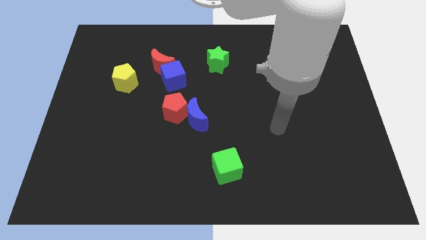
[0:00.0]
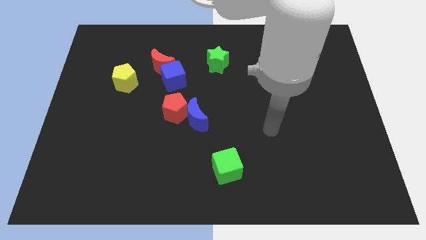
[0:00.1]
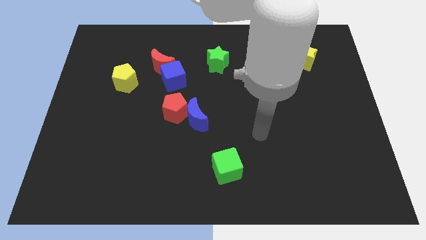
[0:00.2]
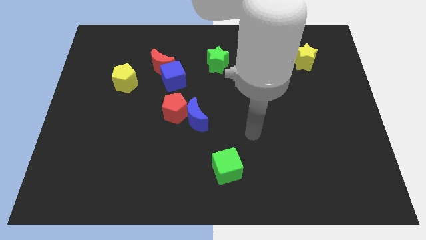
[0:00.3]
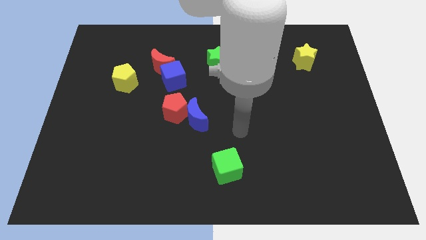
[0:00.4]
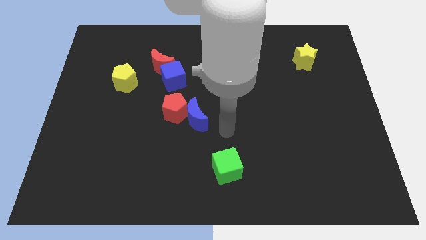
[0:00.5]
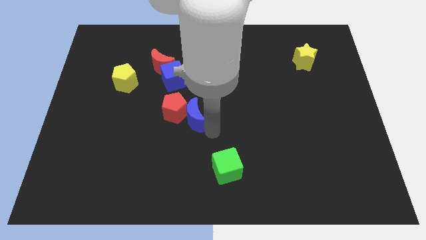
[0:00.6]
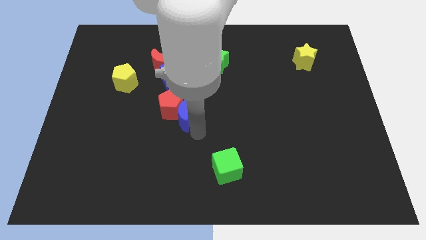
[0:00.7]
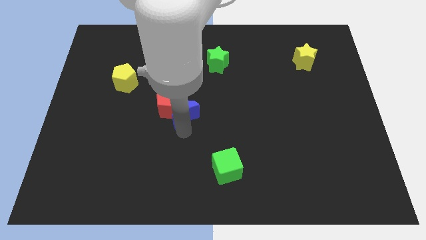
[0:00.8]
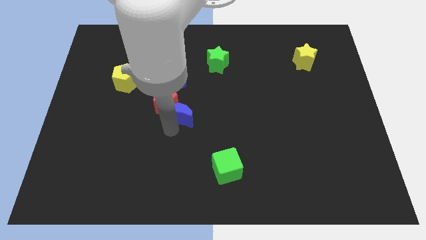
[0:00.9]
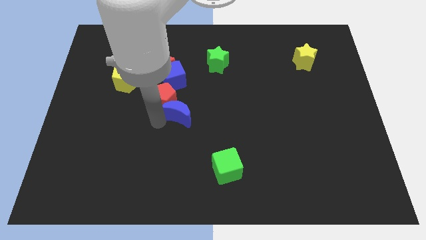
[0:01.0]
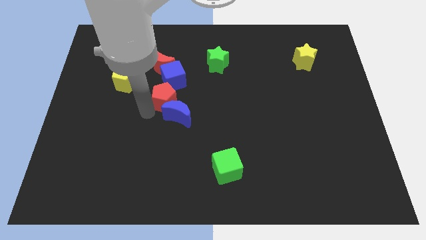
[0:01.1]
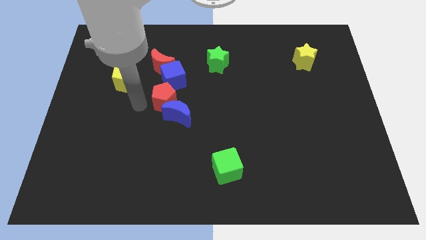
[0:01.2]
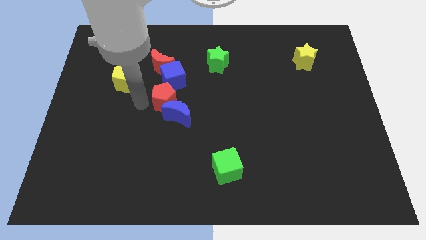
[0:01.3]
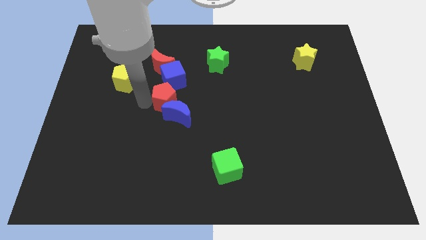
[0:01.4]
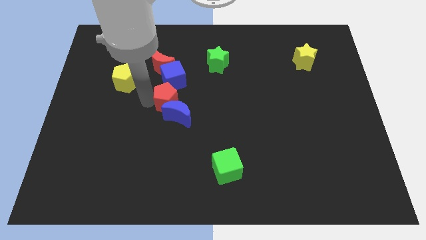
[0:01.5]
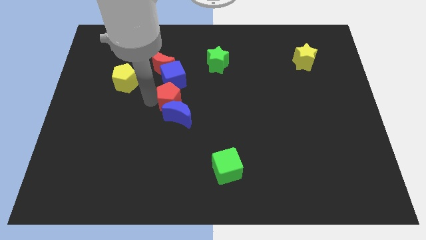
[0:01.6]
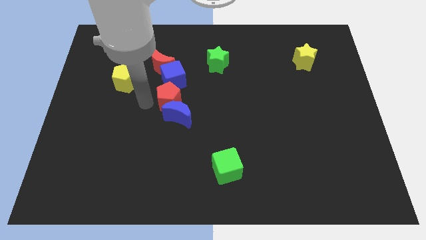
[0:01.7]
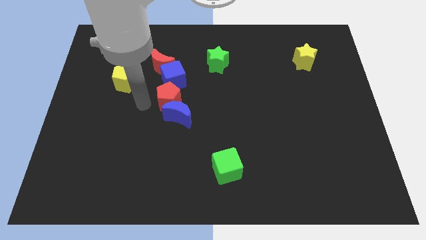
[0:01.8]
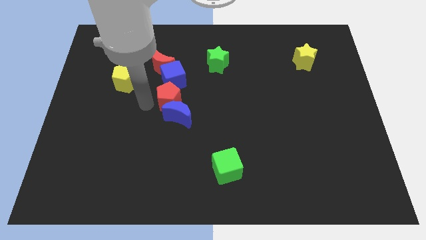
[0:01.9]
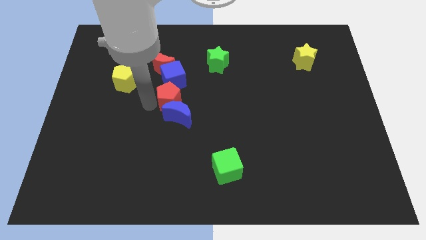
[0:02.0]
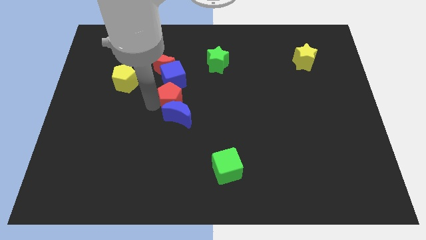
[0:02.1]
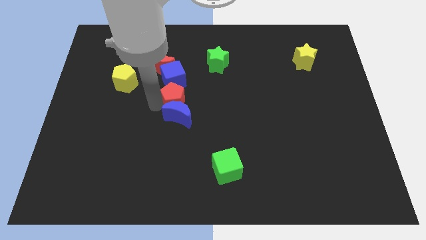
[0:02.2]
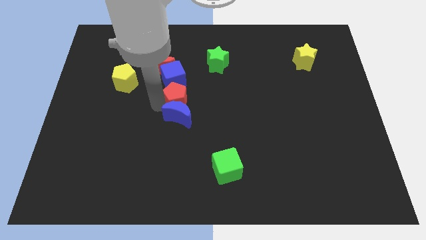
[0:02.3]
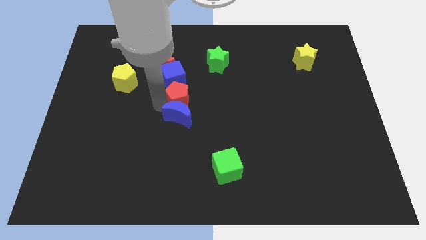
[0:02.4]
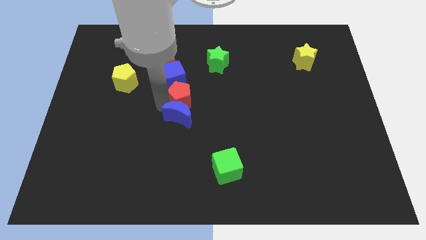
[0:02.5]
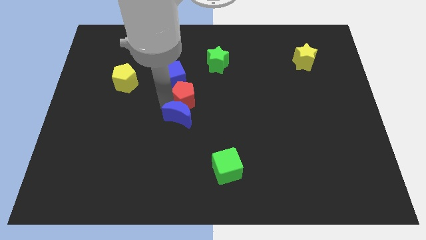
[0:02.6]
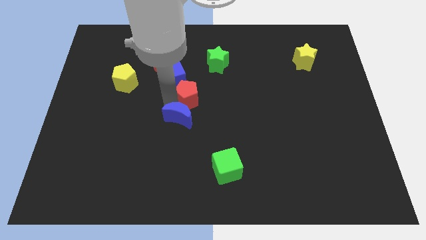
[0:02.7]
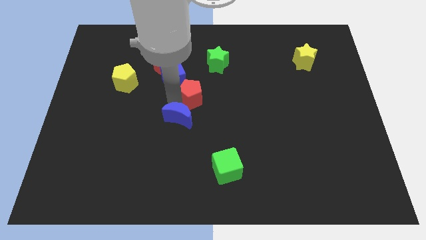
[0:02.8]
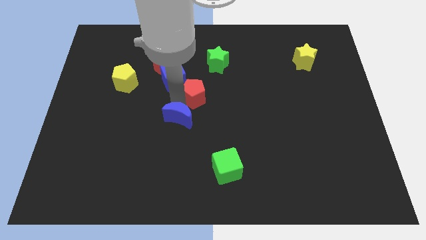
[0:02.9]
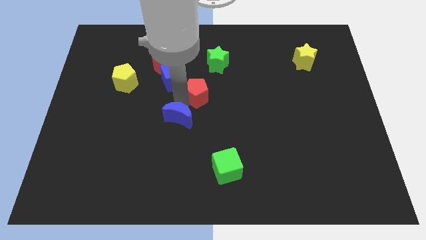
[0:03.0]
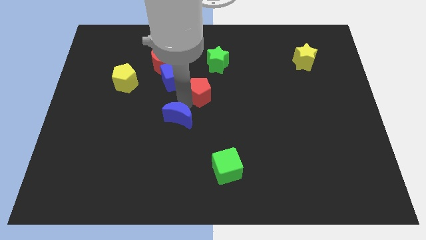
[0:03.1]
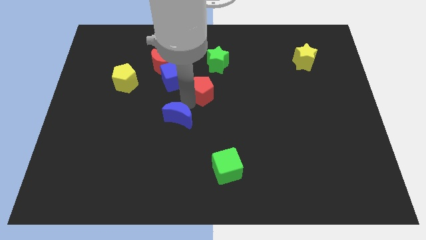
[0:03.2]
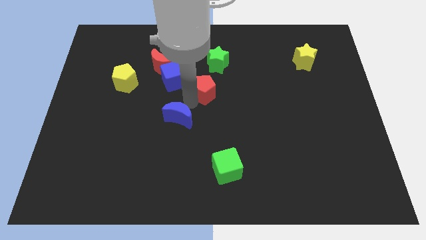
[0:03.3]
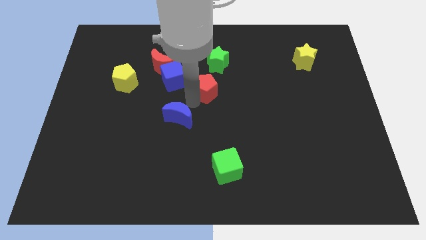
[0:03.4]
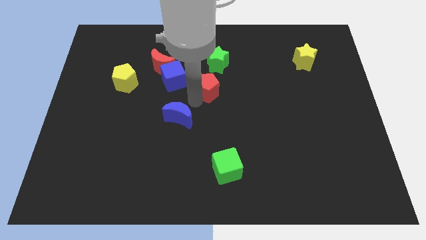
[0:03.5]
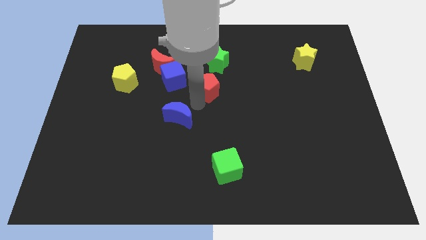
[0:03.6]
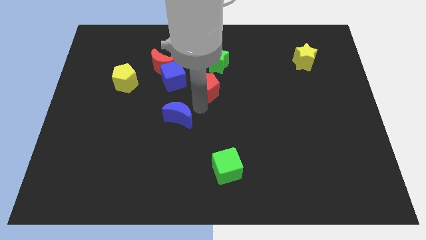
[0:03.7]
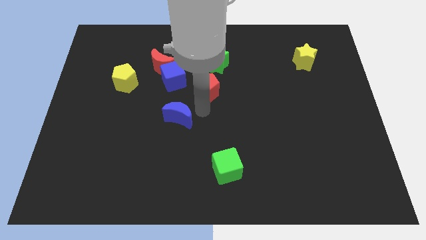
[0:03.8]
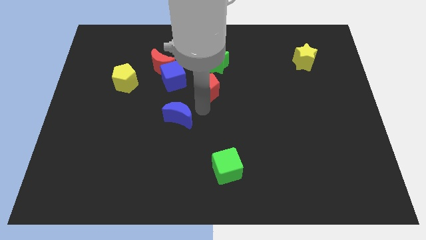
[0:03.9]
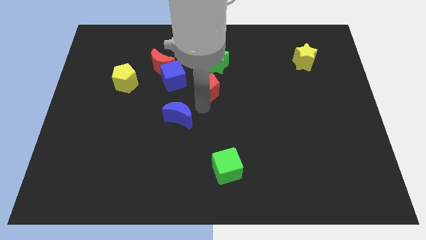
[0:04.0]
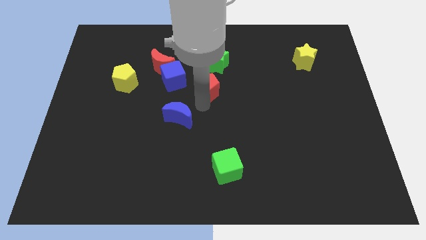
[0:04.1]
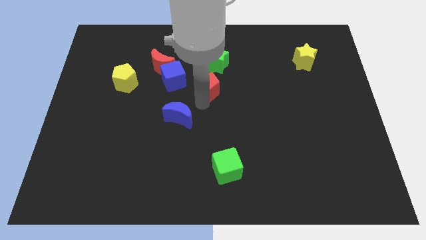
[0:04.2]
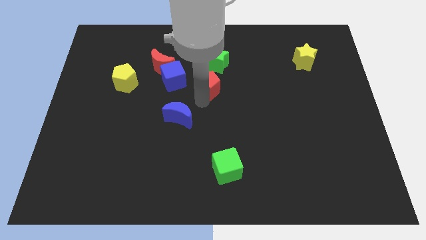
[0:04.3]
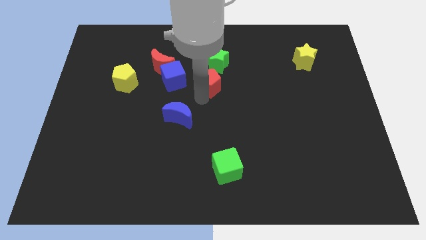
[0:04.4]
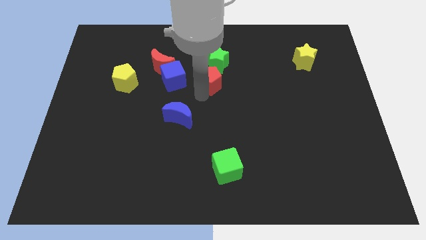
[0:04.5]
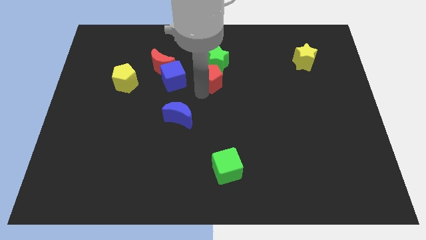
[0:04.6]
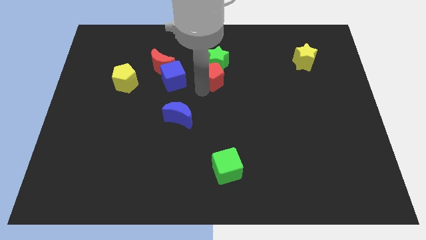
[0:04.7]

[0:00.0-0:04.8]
push the red pentagon to the green star

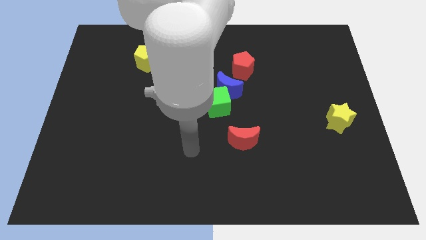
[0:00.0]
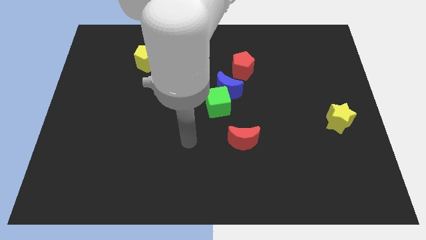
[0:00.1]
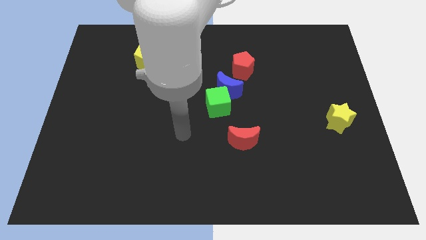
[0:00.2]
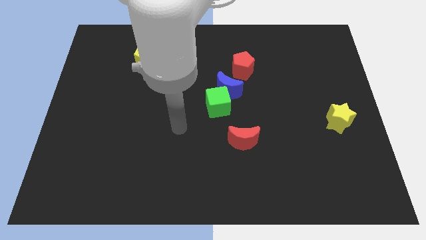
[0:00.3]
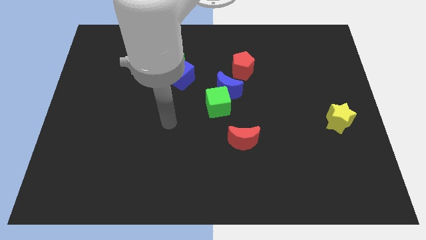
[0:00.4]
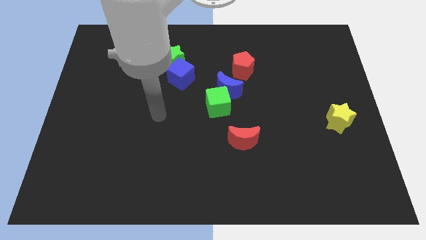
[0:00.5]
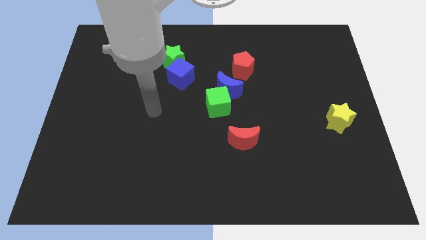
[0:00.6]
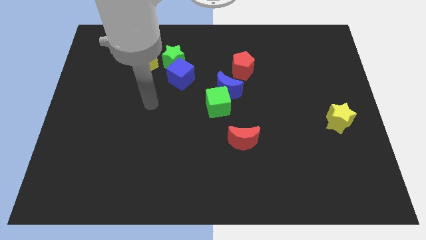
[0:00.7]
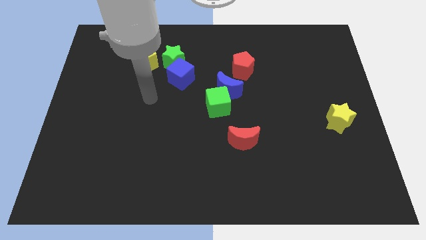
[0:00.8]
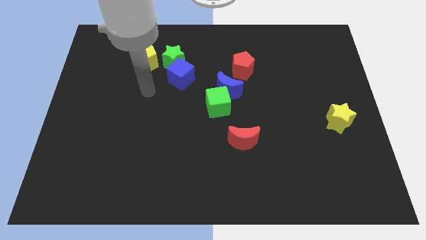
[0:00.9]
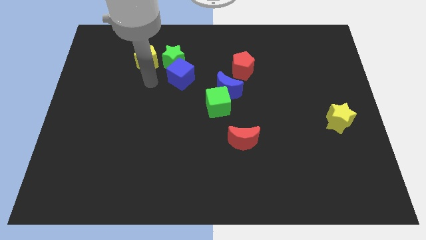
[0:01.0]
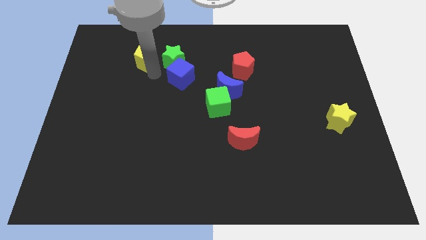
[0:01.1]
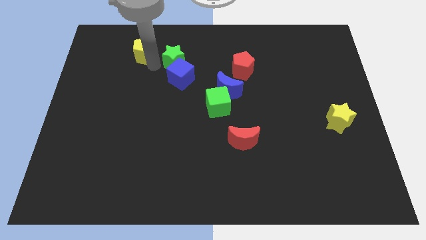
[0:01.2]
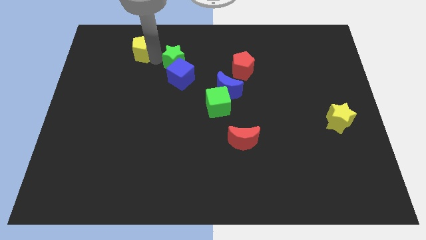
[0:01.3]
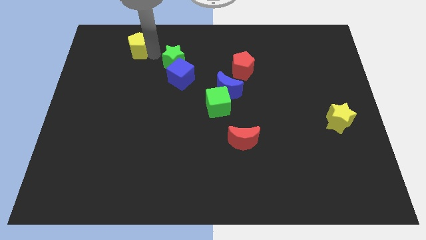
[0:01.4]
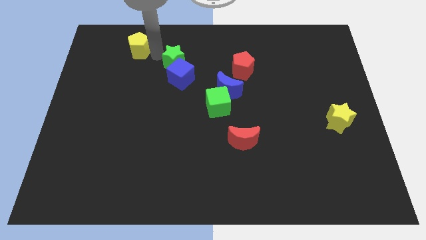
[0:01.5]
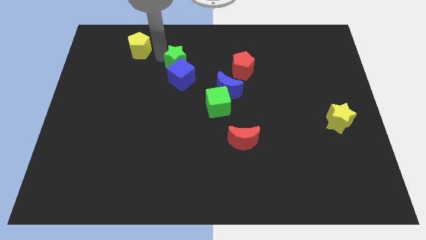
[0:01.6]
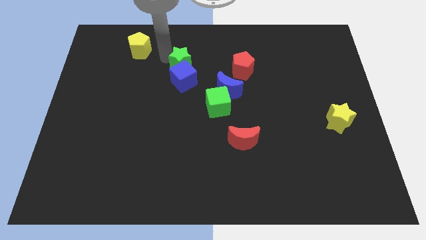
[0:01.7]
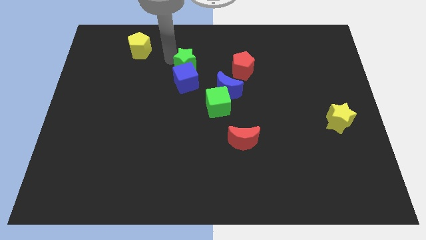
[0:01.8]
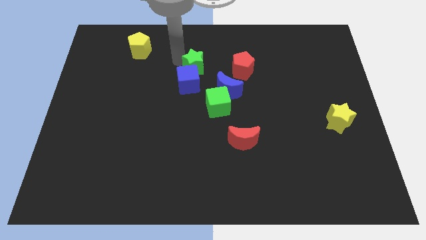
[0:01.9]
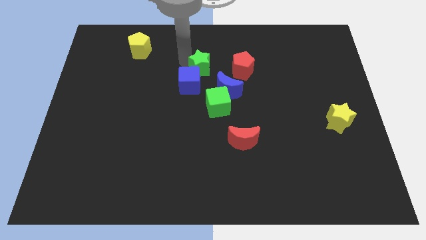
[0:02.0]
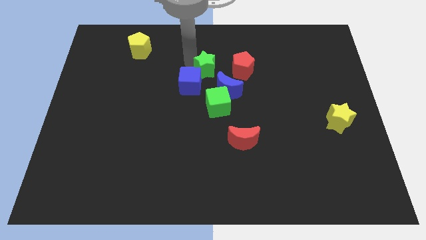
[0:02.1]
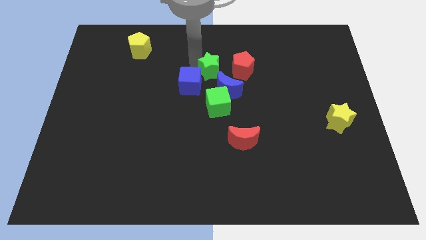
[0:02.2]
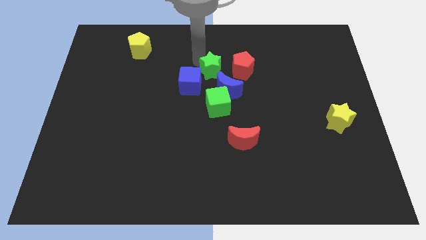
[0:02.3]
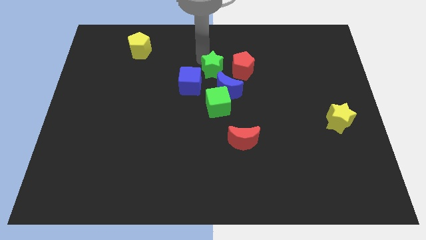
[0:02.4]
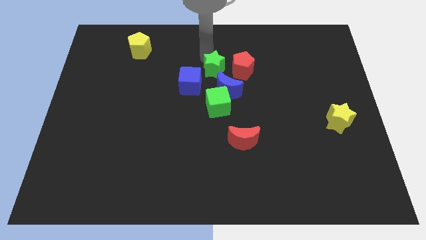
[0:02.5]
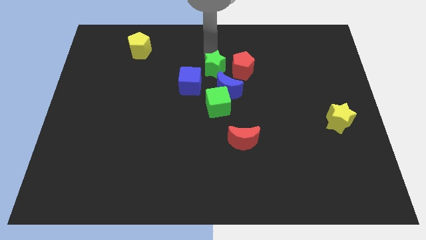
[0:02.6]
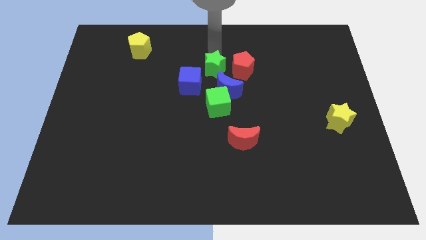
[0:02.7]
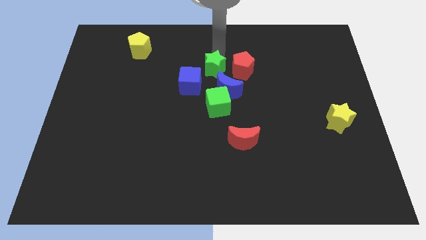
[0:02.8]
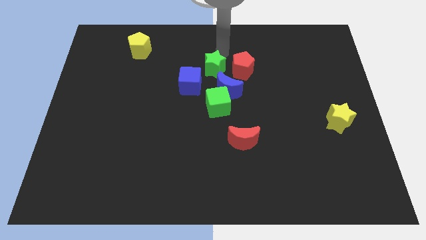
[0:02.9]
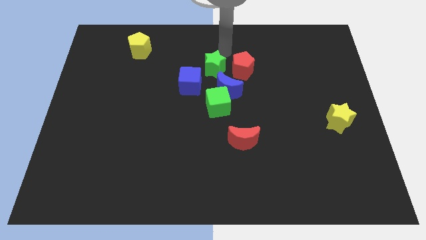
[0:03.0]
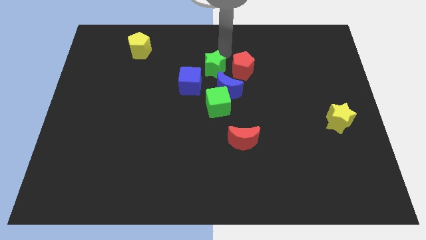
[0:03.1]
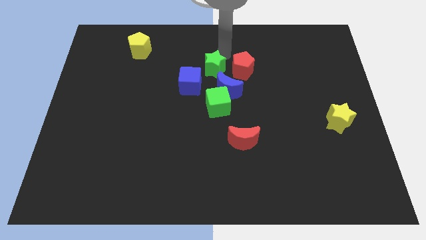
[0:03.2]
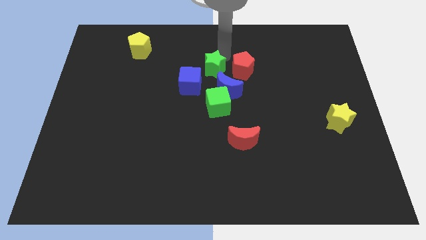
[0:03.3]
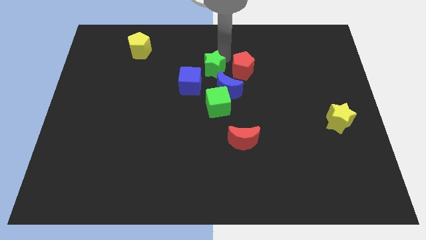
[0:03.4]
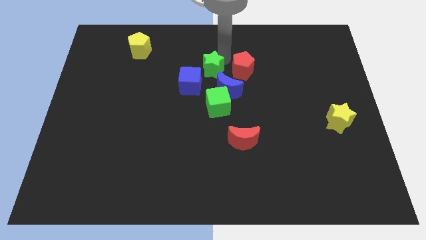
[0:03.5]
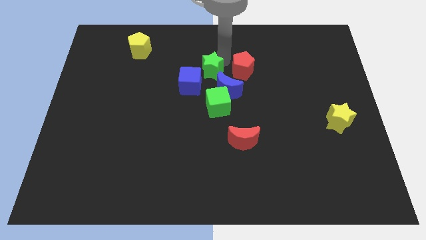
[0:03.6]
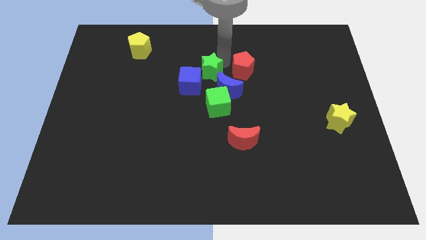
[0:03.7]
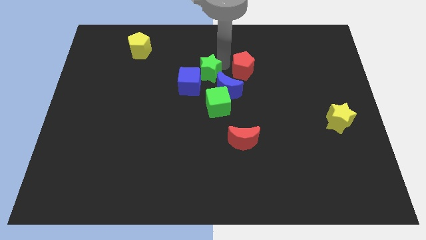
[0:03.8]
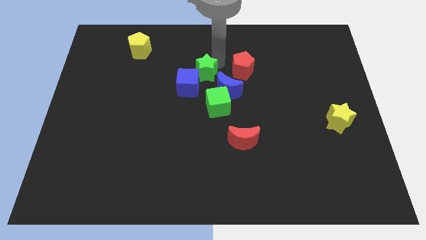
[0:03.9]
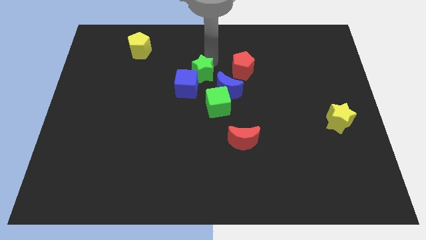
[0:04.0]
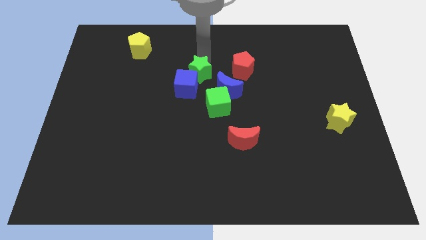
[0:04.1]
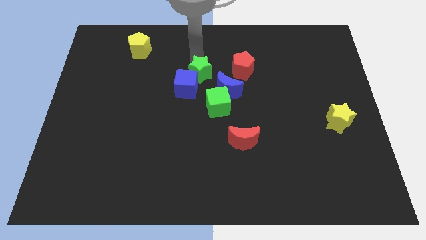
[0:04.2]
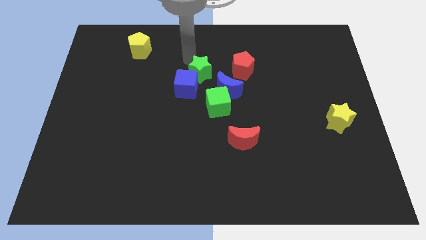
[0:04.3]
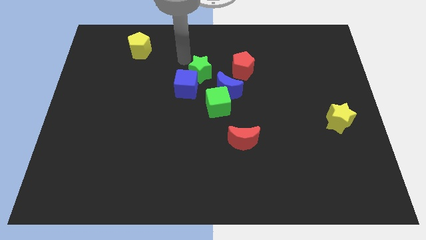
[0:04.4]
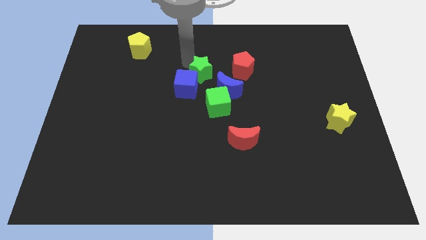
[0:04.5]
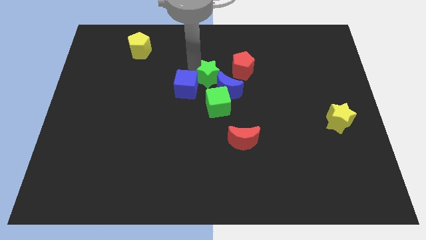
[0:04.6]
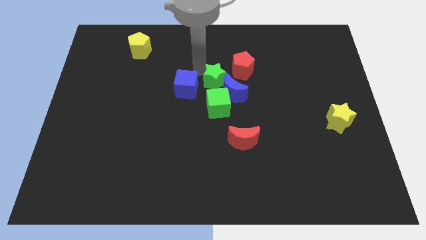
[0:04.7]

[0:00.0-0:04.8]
put the green star next to the blue moon
